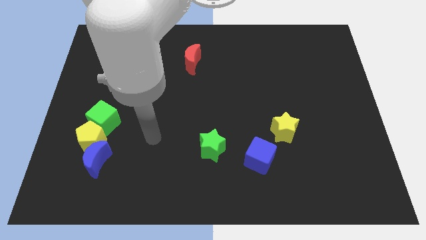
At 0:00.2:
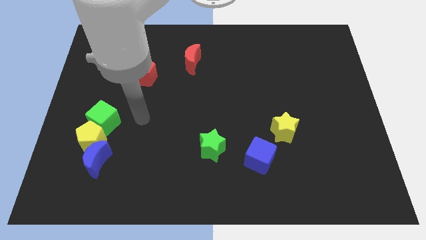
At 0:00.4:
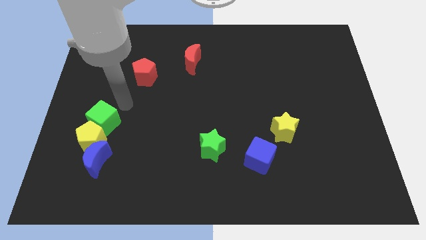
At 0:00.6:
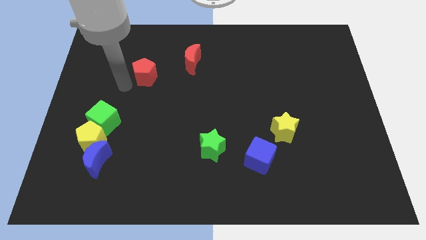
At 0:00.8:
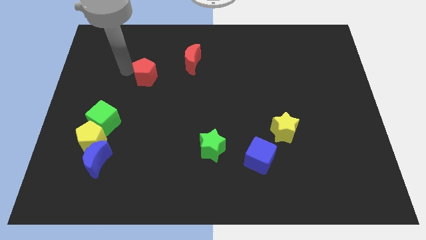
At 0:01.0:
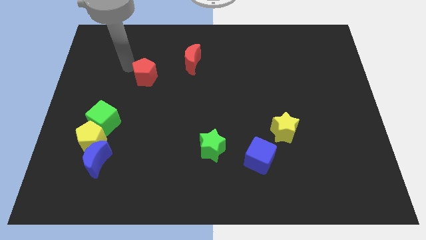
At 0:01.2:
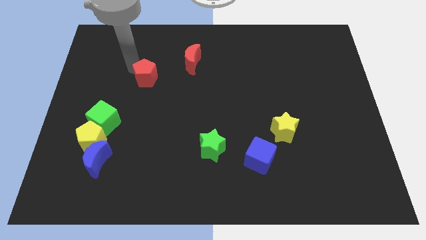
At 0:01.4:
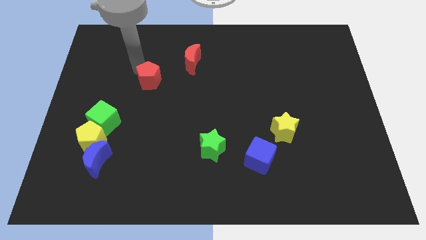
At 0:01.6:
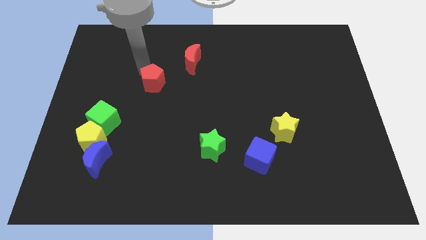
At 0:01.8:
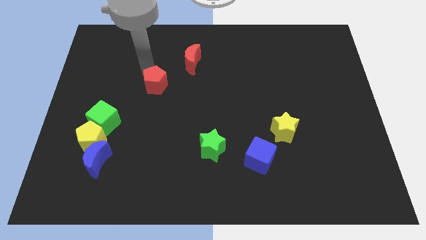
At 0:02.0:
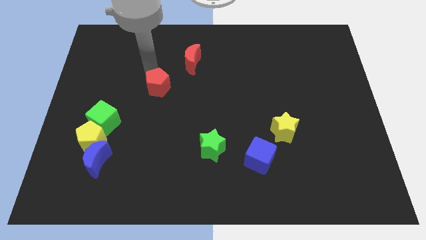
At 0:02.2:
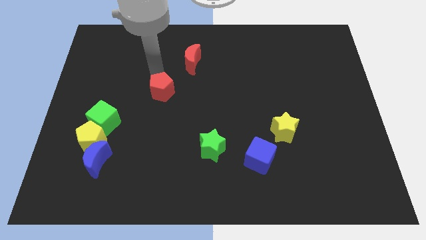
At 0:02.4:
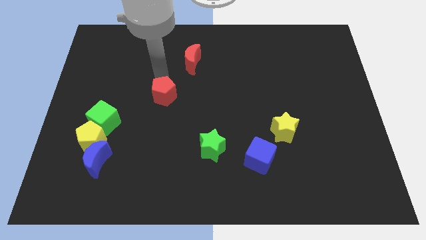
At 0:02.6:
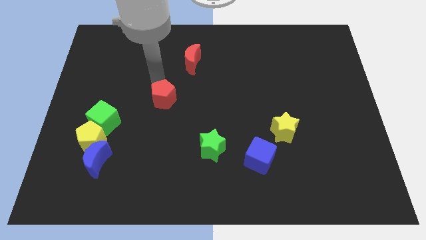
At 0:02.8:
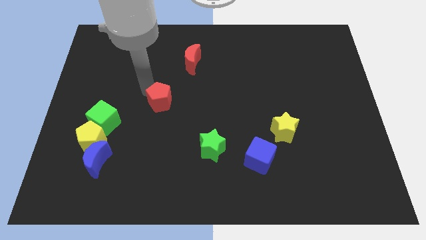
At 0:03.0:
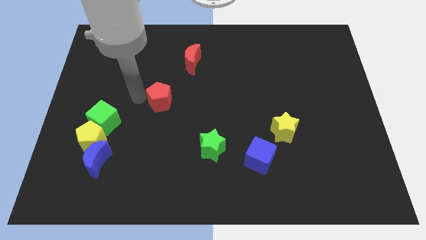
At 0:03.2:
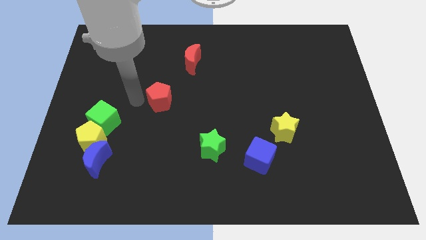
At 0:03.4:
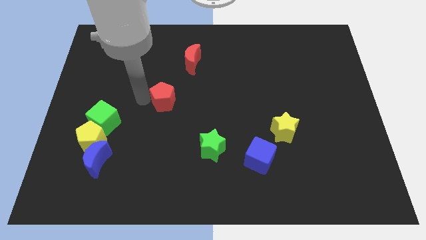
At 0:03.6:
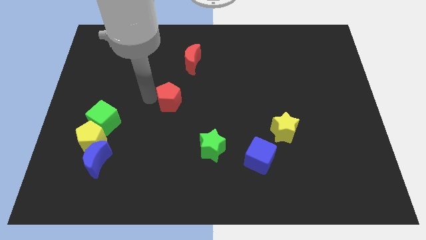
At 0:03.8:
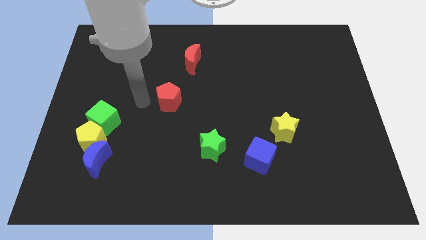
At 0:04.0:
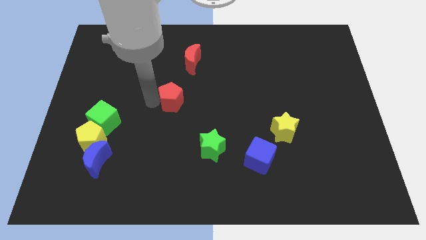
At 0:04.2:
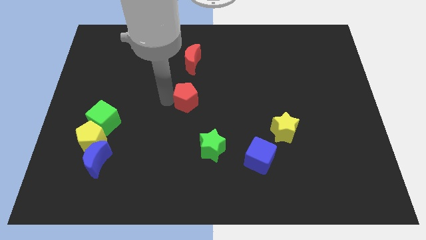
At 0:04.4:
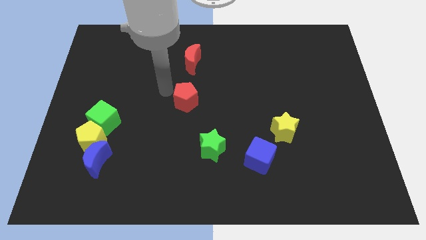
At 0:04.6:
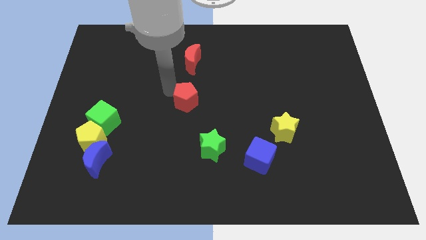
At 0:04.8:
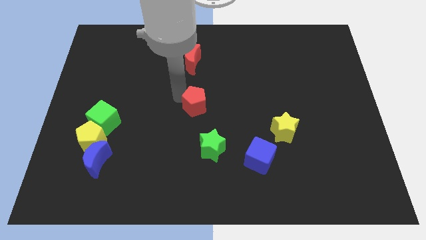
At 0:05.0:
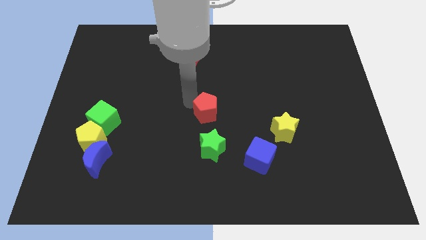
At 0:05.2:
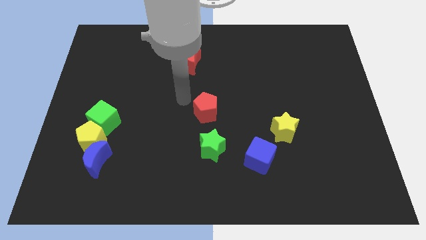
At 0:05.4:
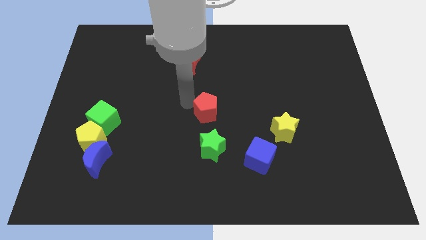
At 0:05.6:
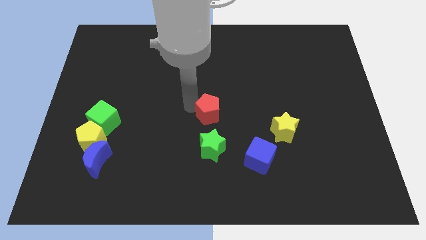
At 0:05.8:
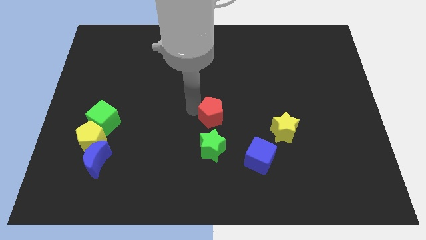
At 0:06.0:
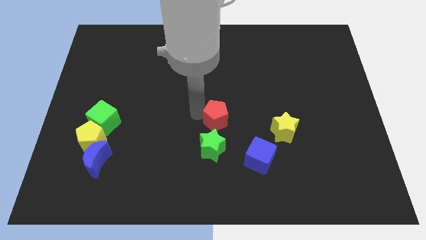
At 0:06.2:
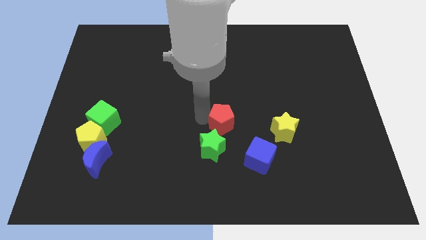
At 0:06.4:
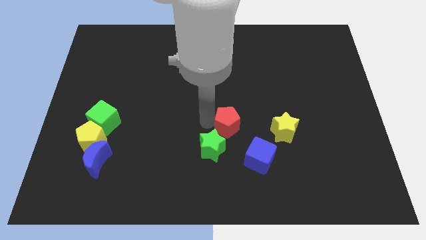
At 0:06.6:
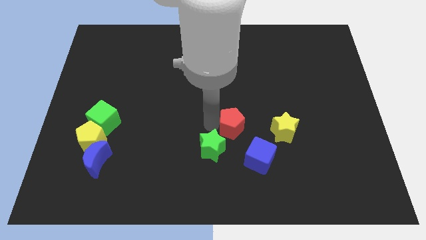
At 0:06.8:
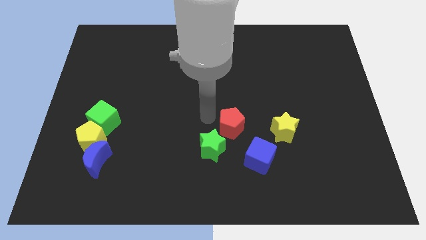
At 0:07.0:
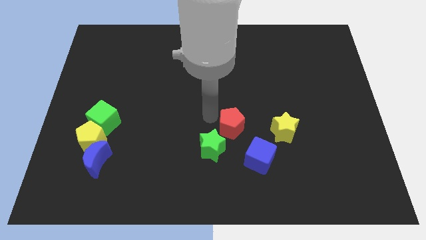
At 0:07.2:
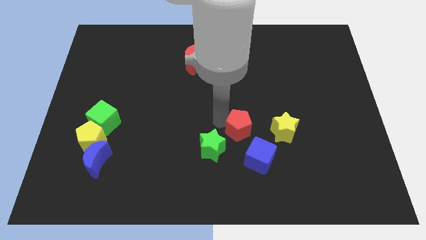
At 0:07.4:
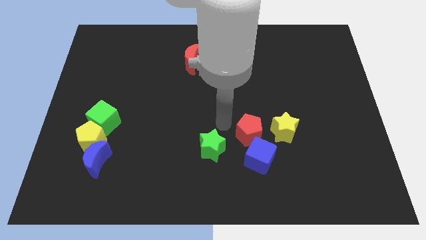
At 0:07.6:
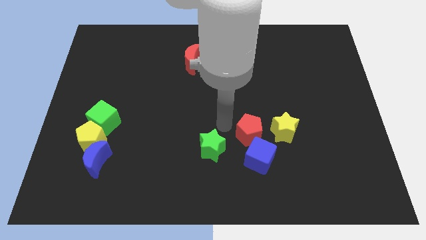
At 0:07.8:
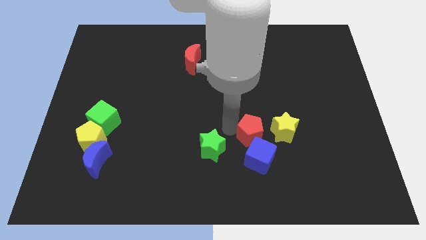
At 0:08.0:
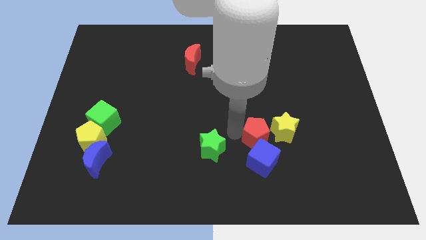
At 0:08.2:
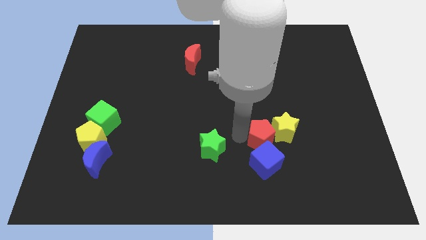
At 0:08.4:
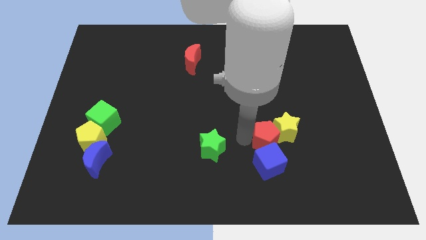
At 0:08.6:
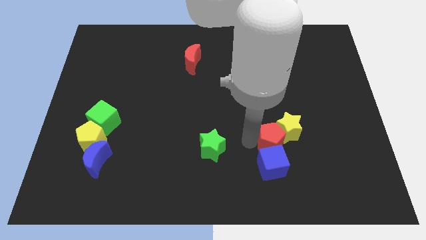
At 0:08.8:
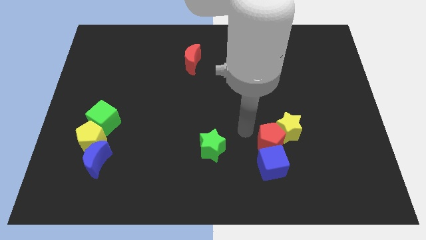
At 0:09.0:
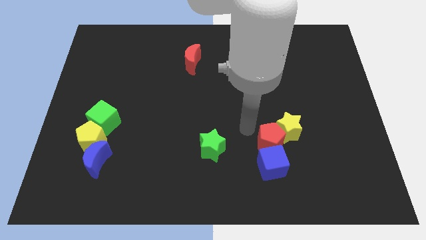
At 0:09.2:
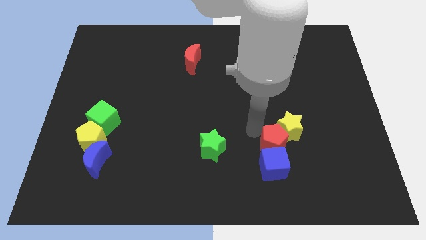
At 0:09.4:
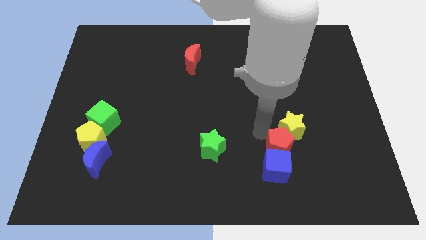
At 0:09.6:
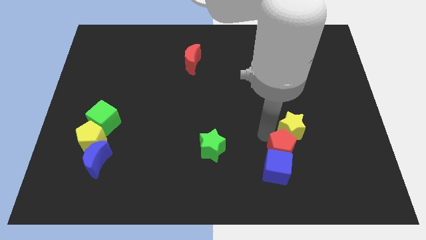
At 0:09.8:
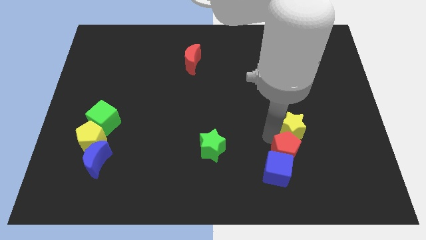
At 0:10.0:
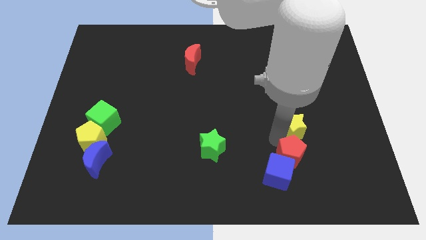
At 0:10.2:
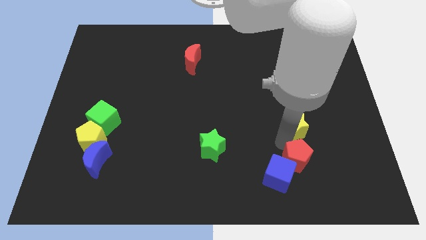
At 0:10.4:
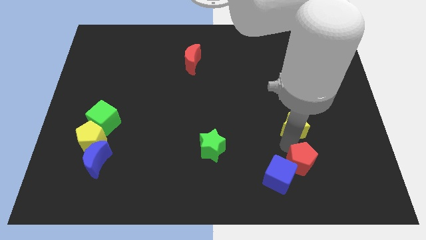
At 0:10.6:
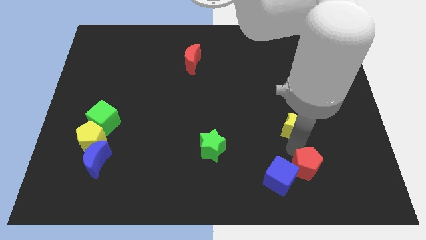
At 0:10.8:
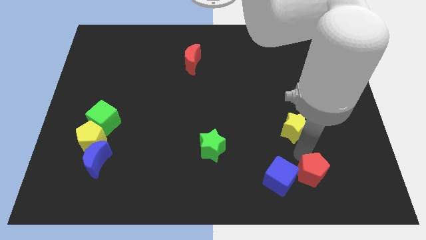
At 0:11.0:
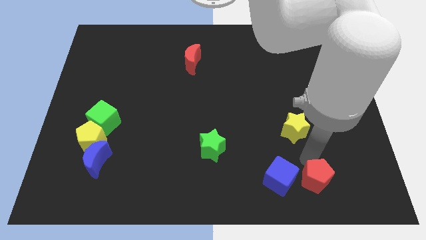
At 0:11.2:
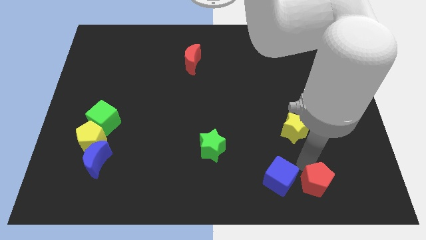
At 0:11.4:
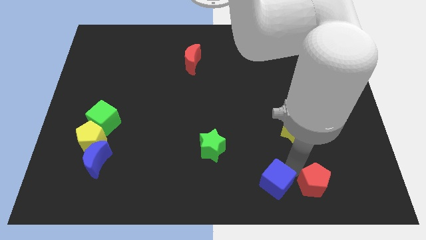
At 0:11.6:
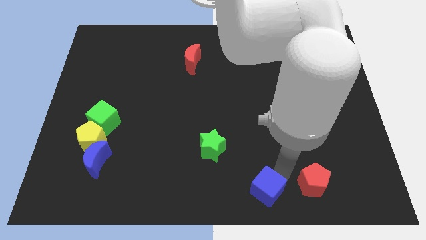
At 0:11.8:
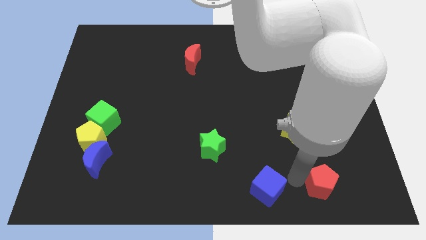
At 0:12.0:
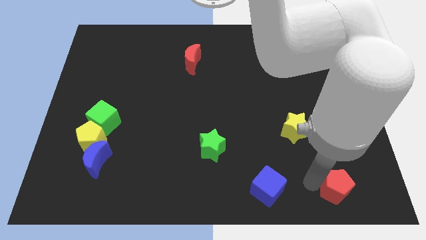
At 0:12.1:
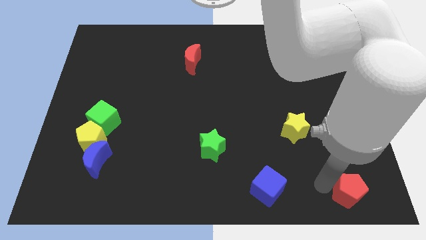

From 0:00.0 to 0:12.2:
put the red pentagon to the bottom right

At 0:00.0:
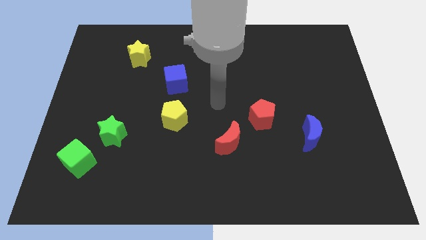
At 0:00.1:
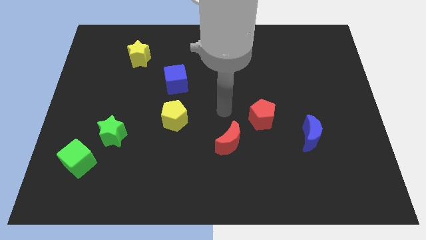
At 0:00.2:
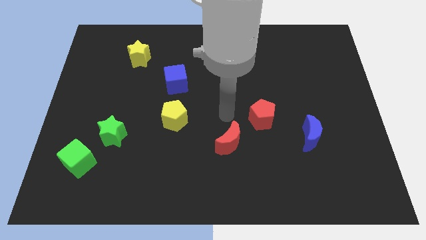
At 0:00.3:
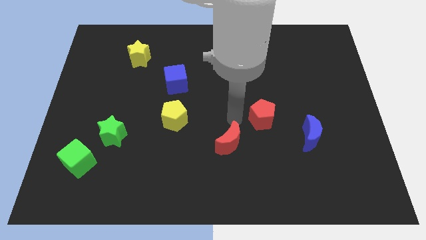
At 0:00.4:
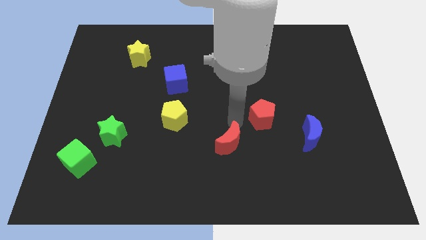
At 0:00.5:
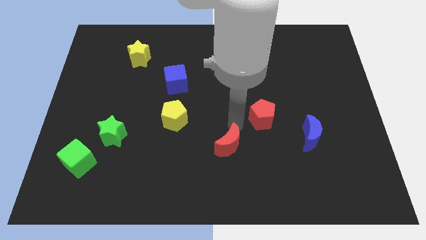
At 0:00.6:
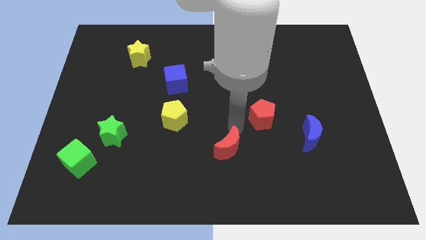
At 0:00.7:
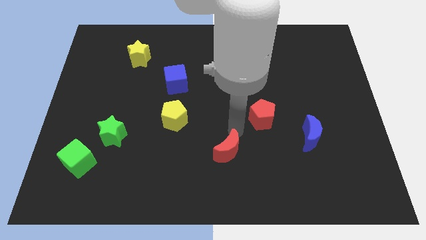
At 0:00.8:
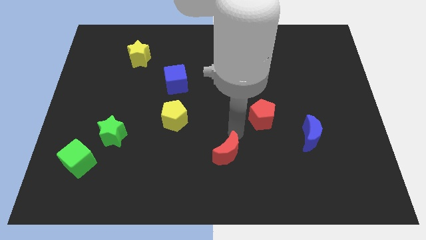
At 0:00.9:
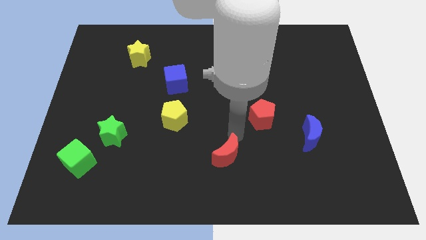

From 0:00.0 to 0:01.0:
slide the red moon to the bottom side

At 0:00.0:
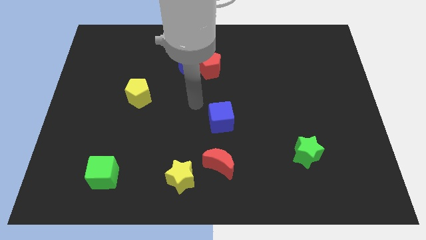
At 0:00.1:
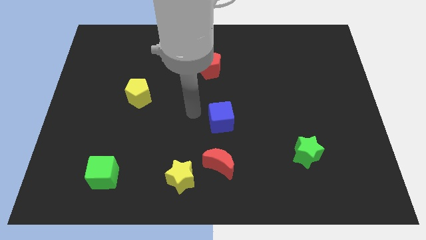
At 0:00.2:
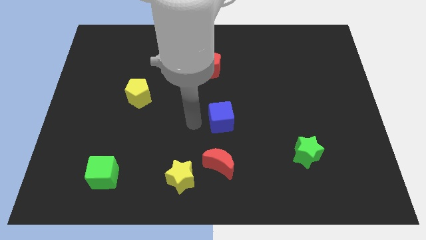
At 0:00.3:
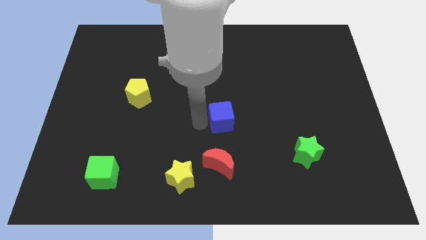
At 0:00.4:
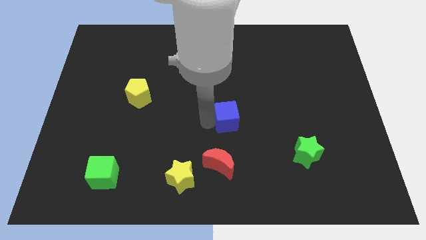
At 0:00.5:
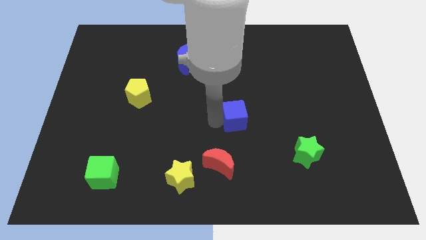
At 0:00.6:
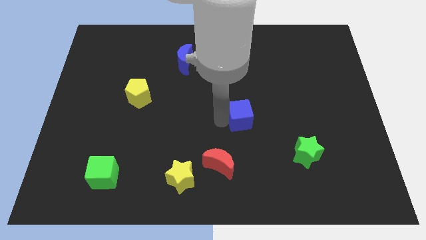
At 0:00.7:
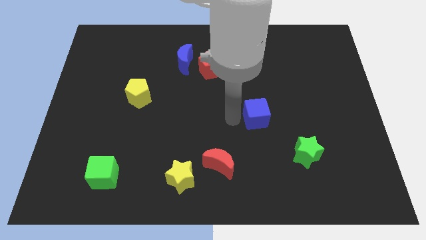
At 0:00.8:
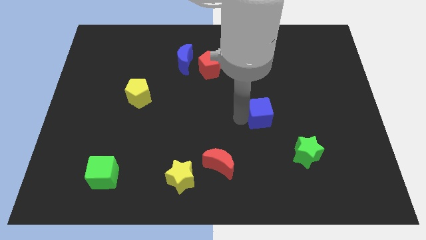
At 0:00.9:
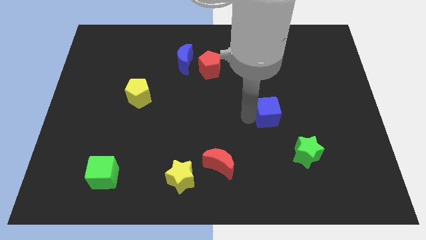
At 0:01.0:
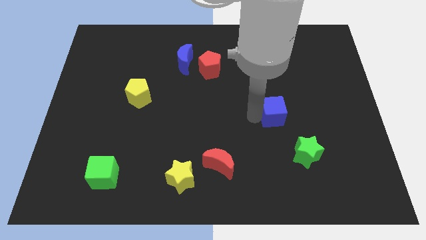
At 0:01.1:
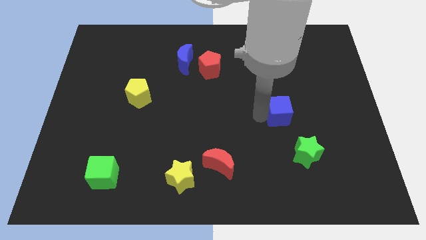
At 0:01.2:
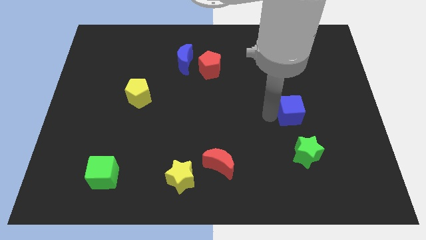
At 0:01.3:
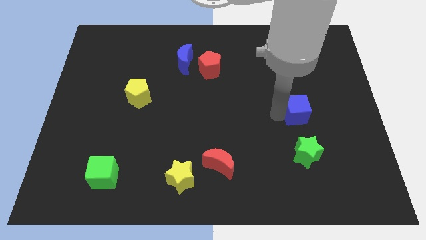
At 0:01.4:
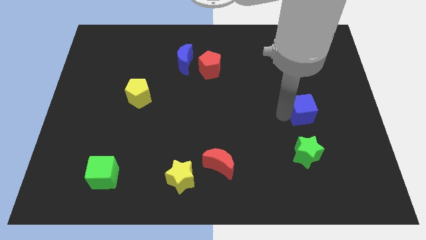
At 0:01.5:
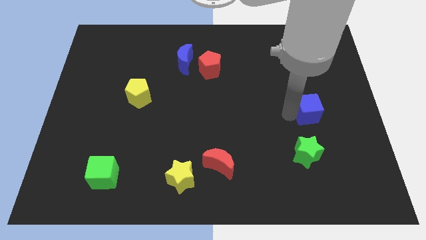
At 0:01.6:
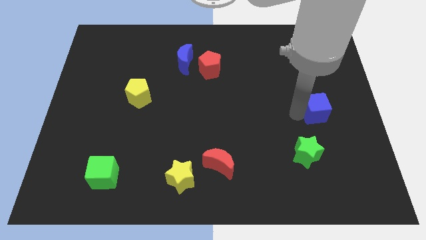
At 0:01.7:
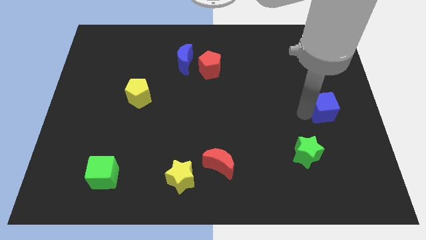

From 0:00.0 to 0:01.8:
move the blue cube to the right side
